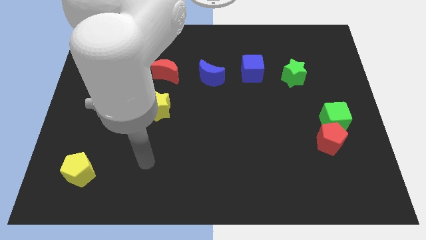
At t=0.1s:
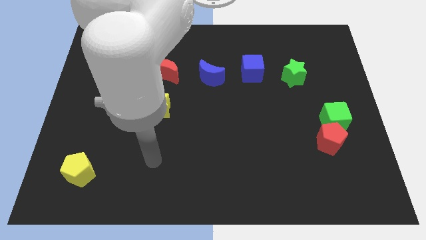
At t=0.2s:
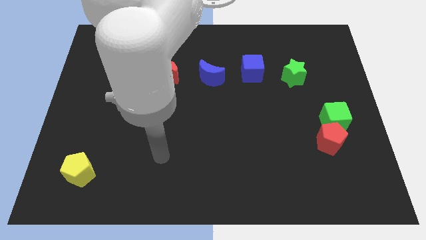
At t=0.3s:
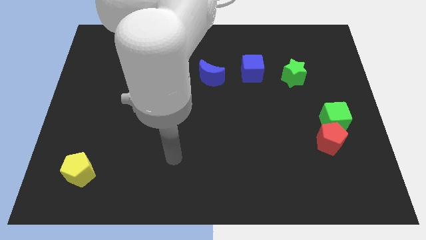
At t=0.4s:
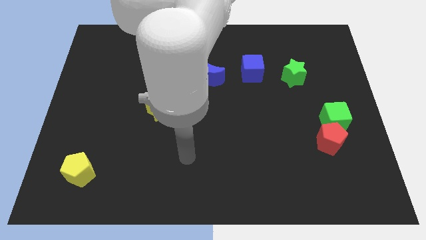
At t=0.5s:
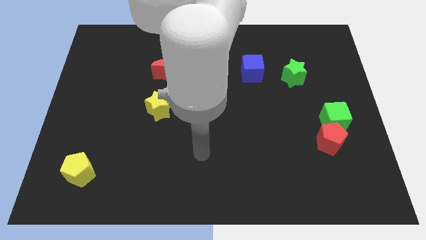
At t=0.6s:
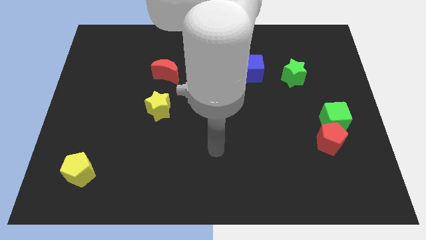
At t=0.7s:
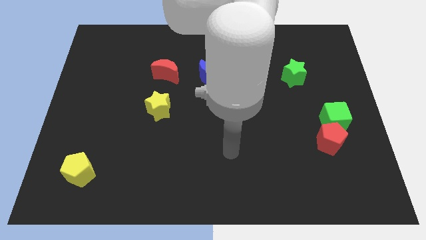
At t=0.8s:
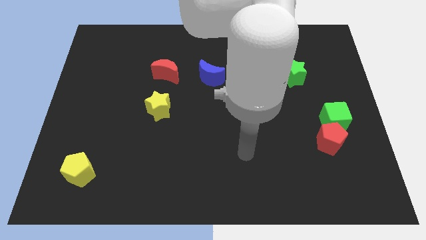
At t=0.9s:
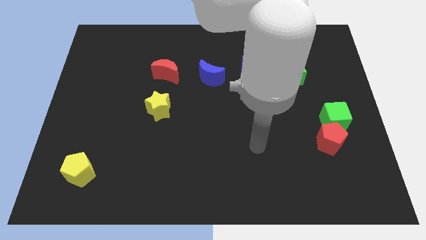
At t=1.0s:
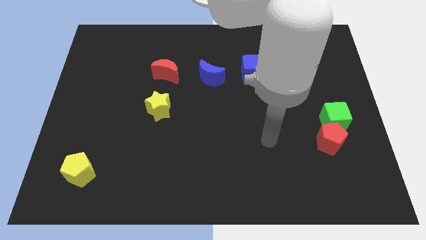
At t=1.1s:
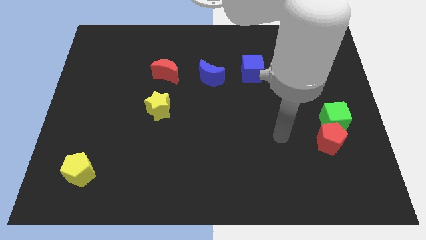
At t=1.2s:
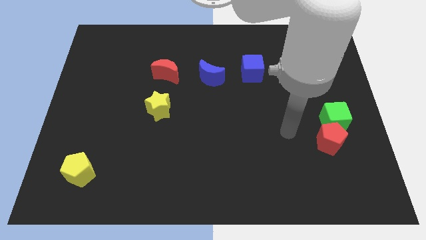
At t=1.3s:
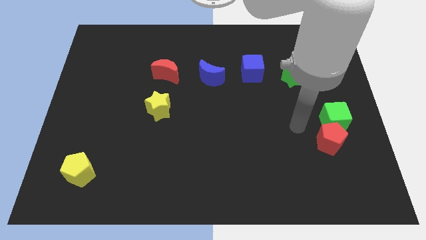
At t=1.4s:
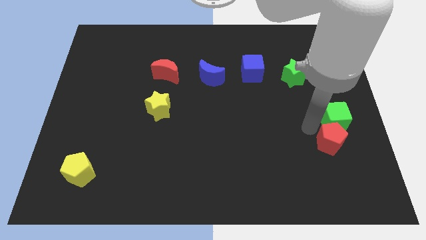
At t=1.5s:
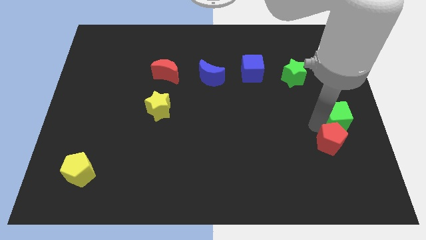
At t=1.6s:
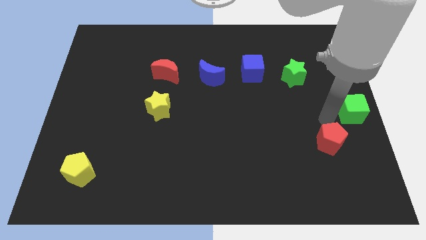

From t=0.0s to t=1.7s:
separate the red pentagon from the green cube

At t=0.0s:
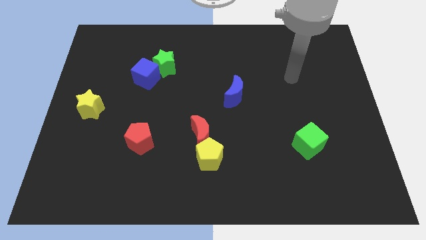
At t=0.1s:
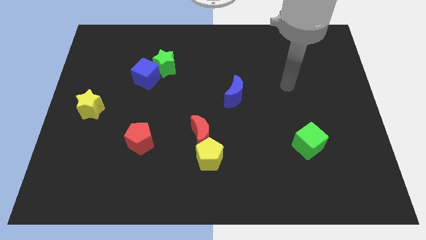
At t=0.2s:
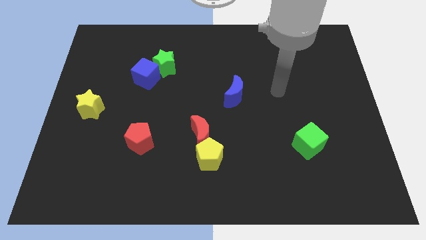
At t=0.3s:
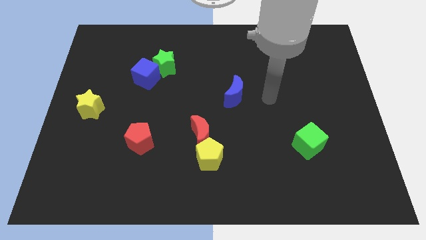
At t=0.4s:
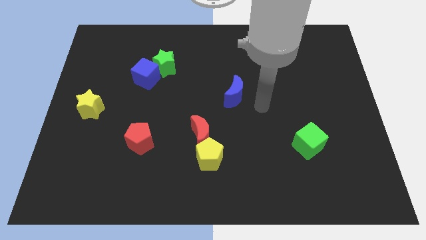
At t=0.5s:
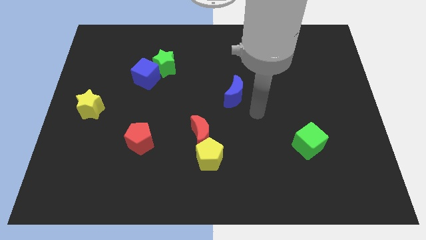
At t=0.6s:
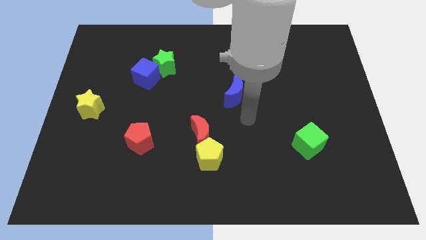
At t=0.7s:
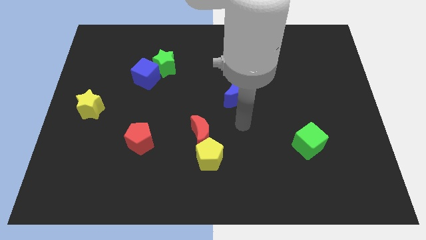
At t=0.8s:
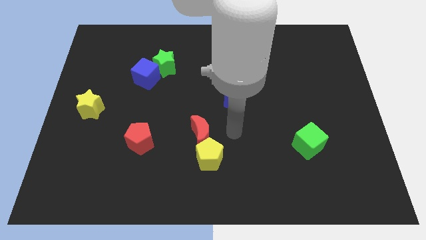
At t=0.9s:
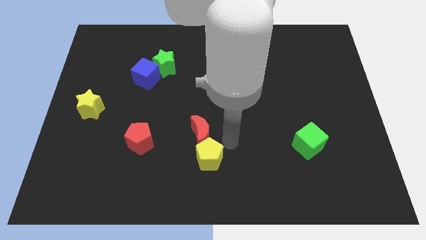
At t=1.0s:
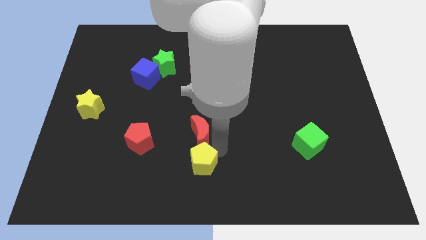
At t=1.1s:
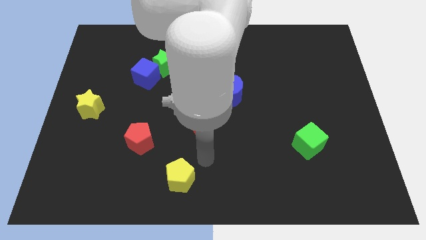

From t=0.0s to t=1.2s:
move the red moon away from the yellow pentagon

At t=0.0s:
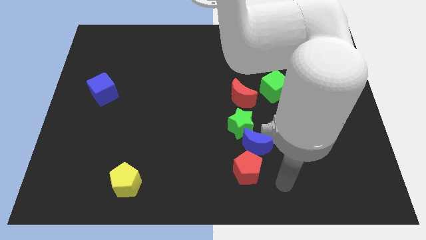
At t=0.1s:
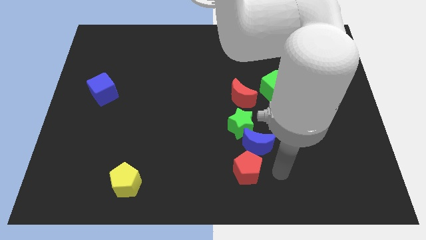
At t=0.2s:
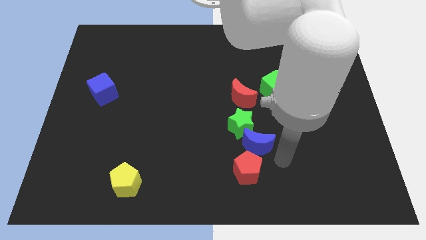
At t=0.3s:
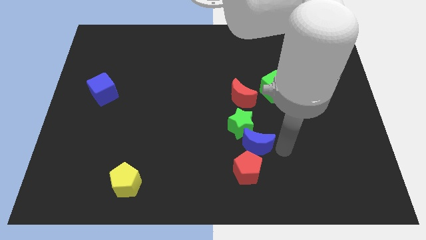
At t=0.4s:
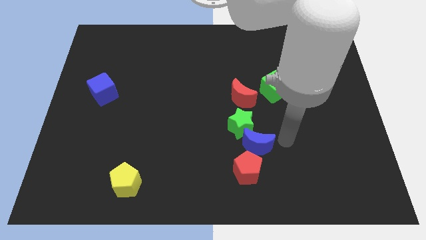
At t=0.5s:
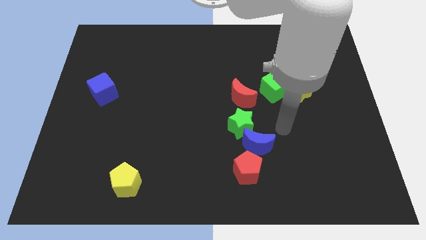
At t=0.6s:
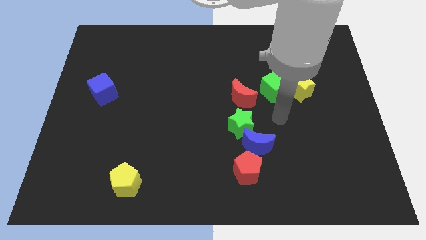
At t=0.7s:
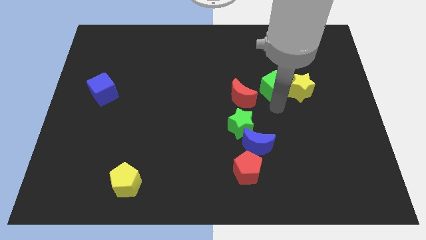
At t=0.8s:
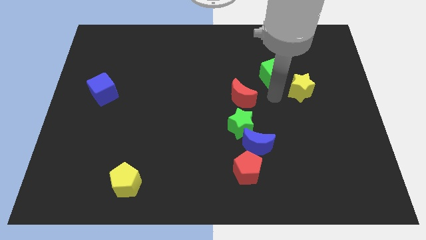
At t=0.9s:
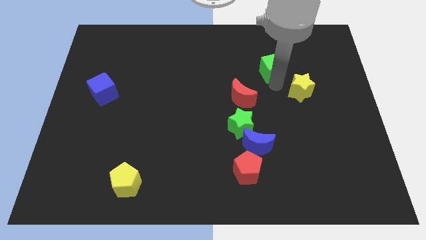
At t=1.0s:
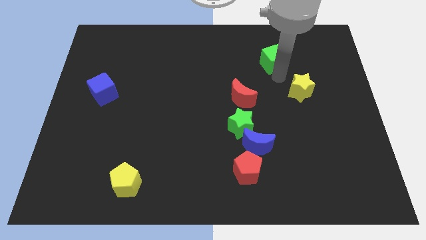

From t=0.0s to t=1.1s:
move the yellow star away from the green cube

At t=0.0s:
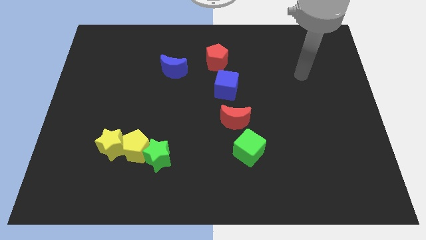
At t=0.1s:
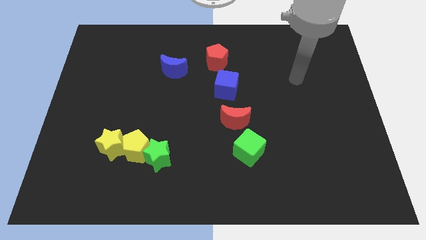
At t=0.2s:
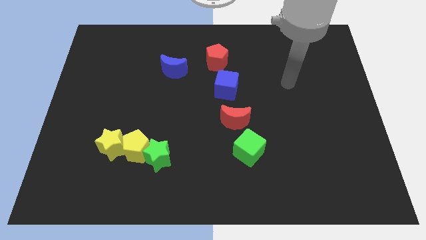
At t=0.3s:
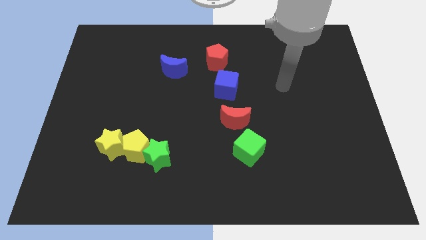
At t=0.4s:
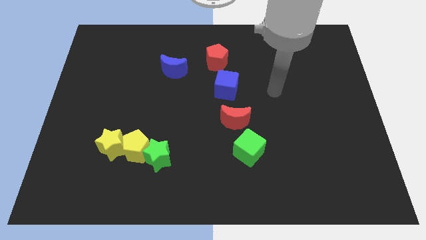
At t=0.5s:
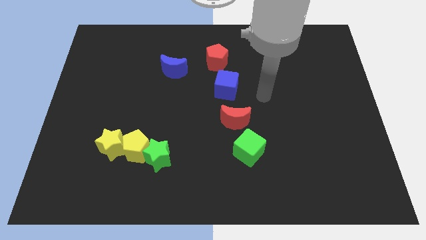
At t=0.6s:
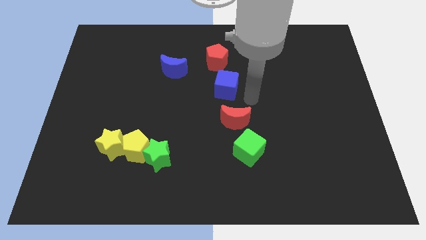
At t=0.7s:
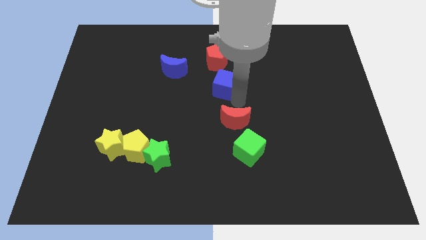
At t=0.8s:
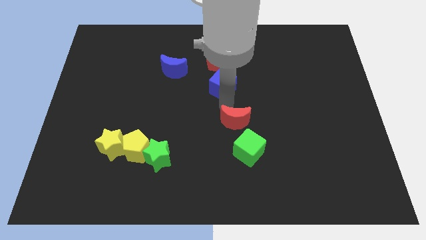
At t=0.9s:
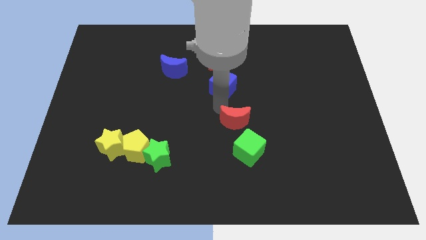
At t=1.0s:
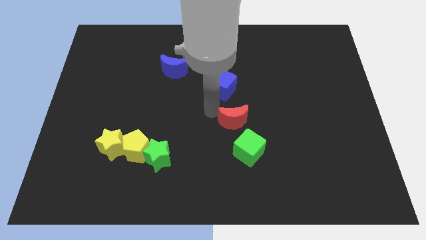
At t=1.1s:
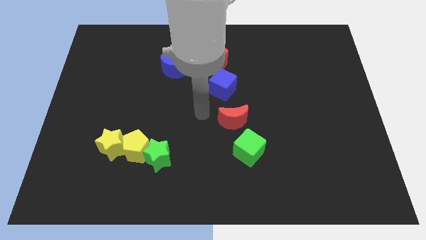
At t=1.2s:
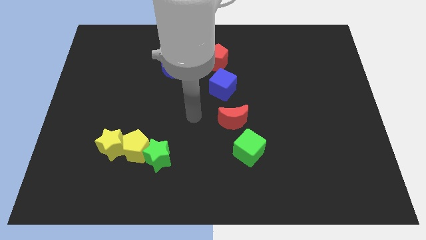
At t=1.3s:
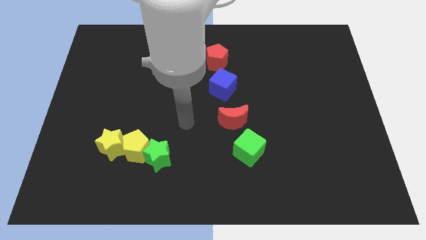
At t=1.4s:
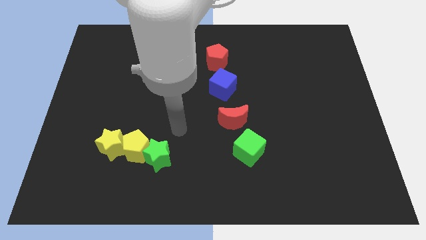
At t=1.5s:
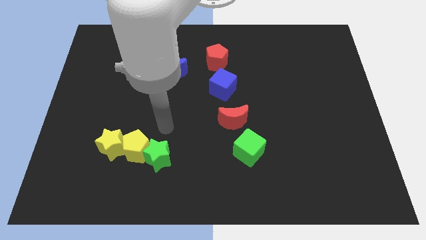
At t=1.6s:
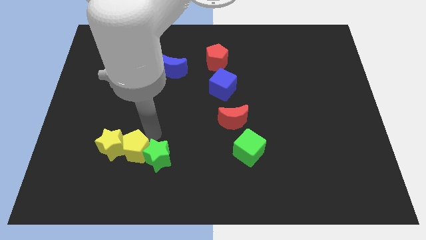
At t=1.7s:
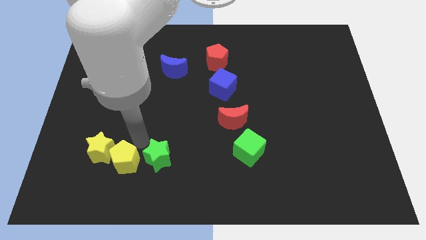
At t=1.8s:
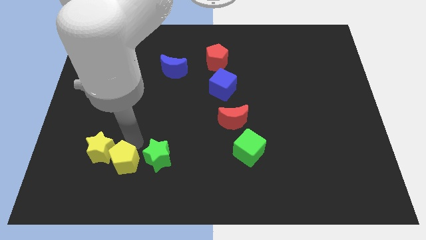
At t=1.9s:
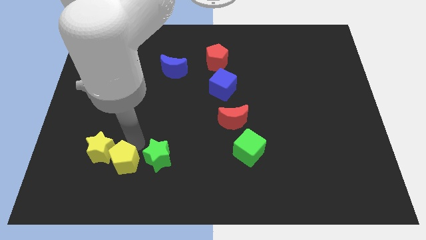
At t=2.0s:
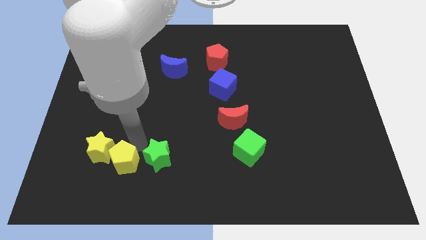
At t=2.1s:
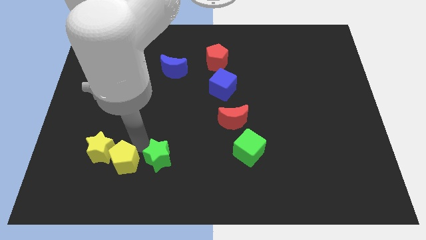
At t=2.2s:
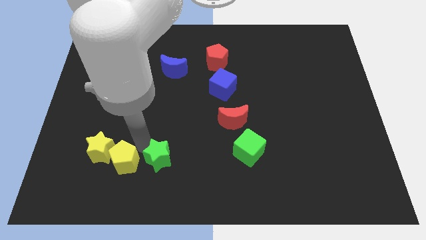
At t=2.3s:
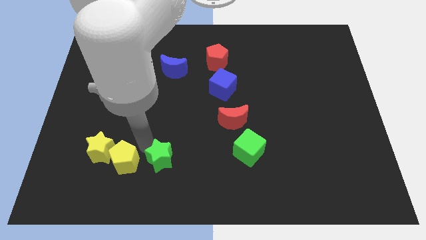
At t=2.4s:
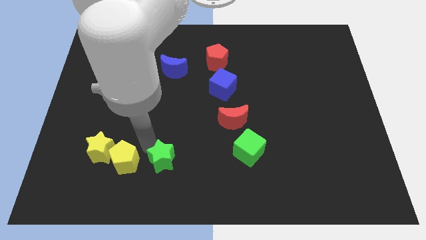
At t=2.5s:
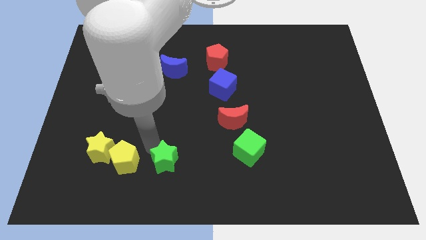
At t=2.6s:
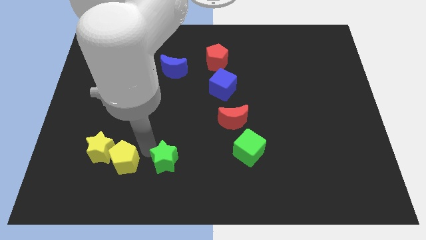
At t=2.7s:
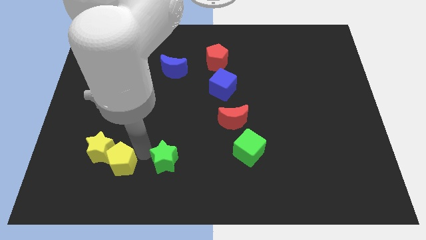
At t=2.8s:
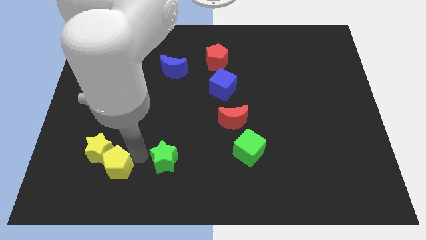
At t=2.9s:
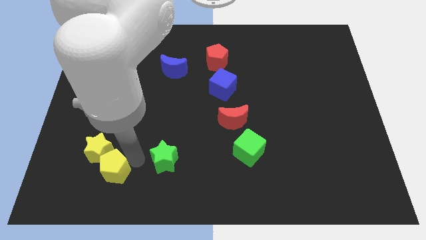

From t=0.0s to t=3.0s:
separate the green star from the yellow pentagon

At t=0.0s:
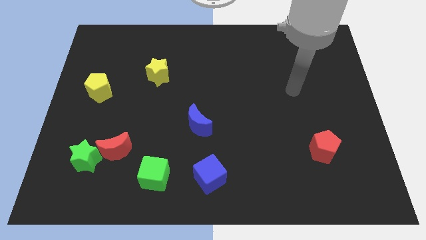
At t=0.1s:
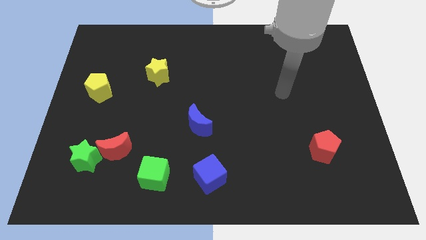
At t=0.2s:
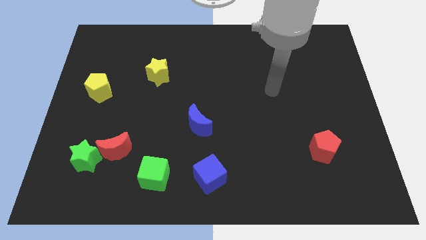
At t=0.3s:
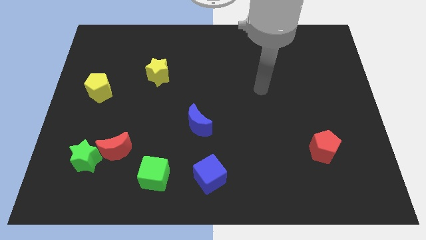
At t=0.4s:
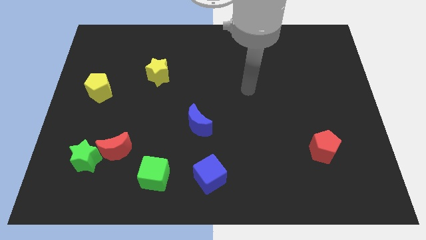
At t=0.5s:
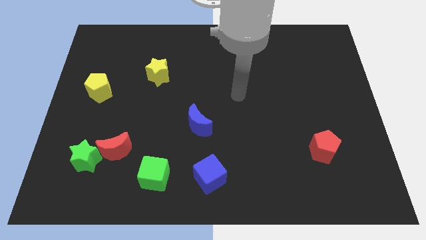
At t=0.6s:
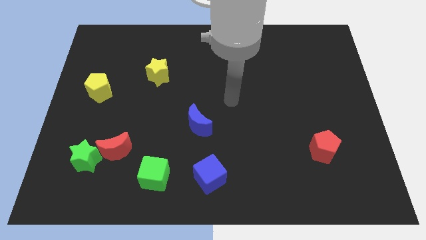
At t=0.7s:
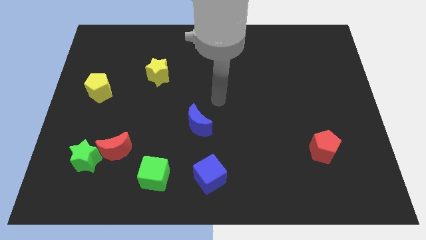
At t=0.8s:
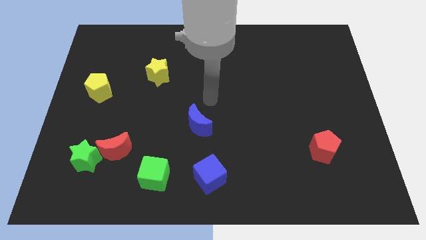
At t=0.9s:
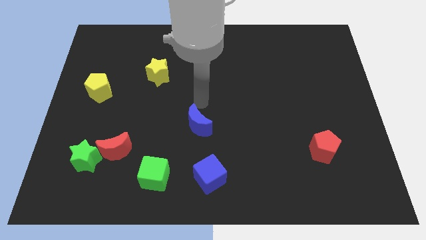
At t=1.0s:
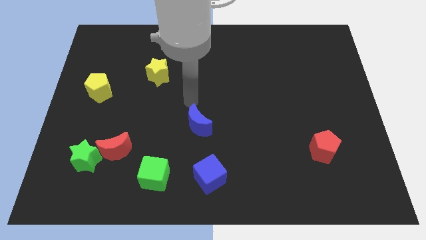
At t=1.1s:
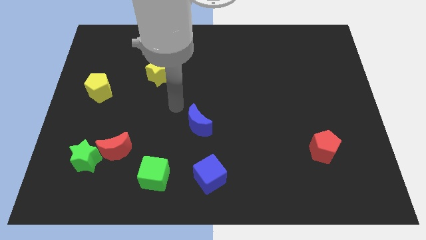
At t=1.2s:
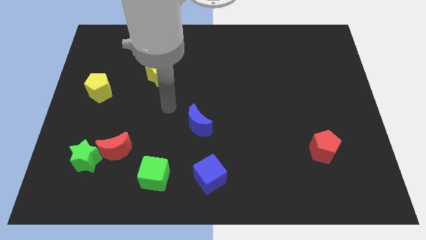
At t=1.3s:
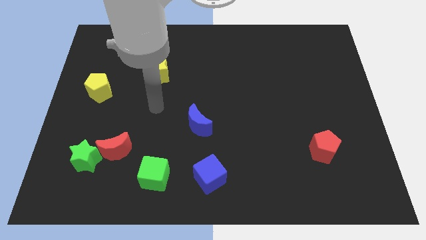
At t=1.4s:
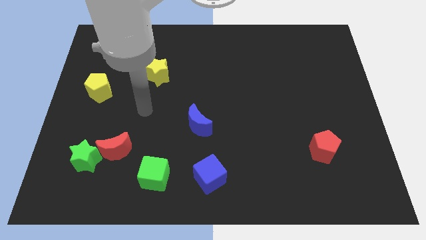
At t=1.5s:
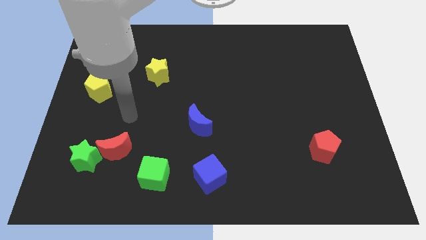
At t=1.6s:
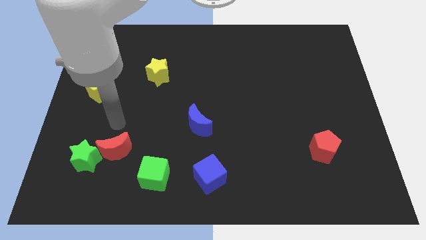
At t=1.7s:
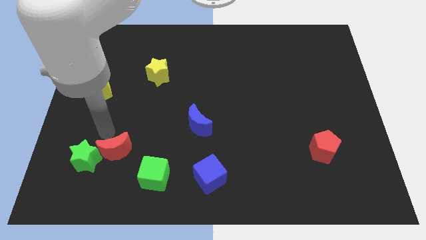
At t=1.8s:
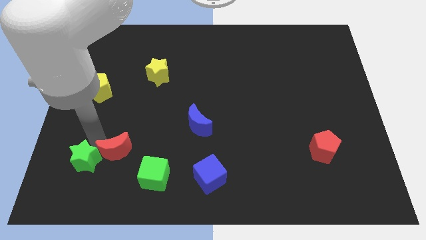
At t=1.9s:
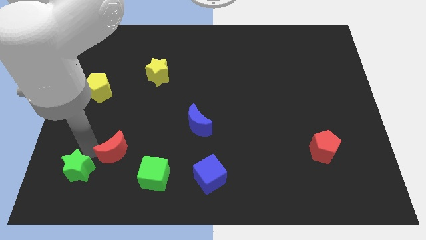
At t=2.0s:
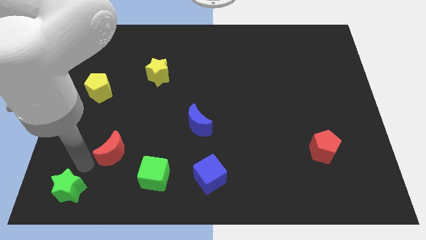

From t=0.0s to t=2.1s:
separate the red moon from the green star

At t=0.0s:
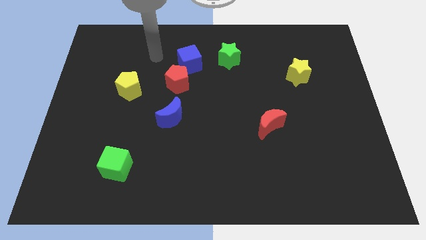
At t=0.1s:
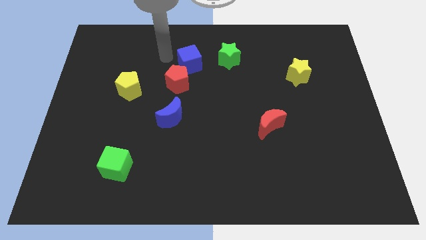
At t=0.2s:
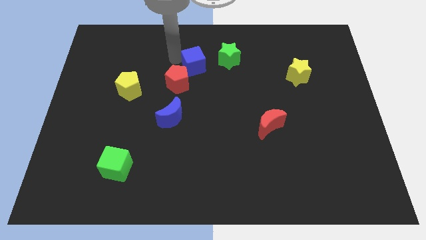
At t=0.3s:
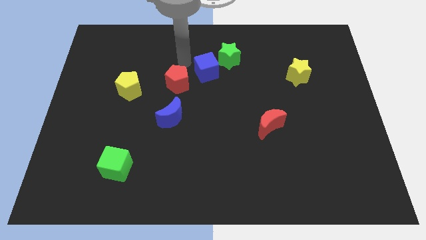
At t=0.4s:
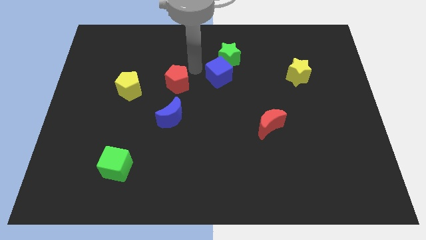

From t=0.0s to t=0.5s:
move the red pentagon away from the blue cube
